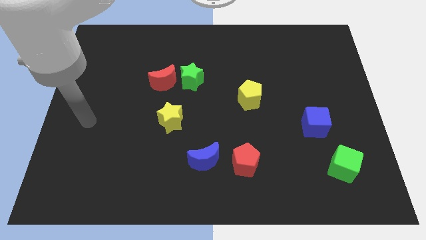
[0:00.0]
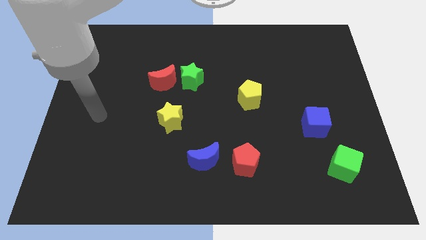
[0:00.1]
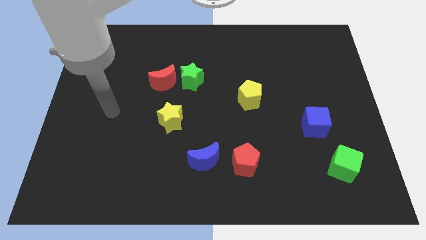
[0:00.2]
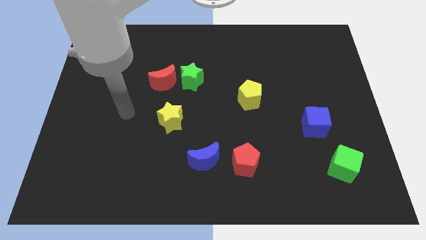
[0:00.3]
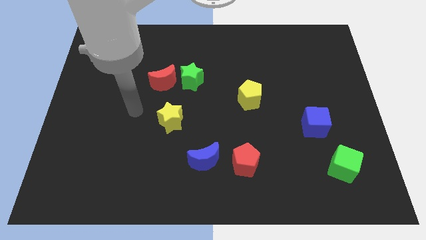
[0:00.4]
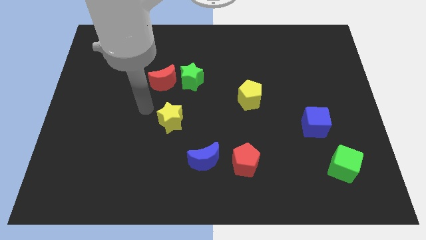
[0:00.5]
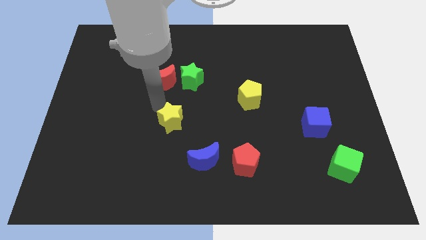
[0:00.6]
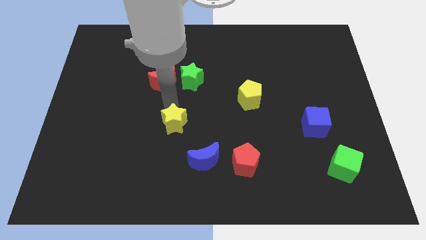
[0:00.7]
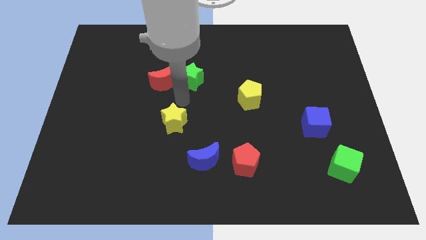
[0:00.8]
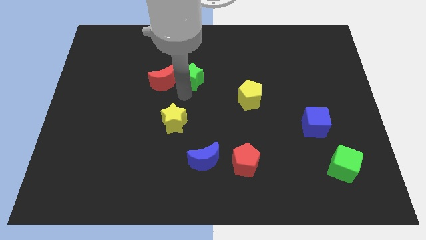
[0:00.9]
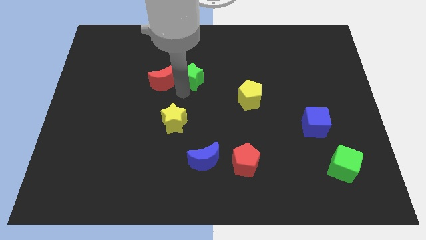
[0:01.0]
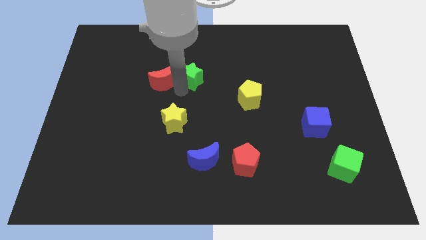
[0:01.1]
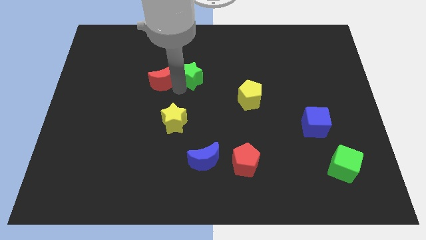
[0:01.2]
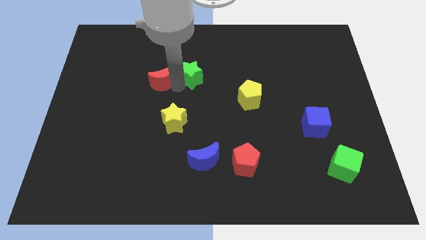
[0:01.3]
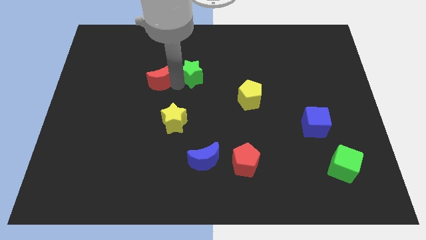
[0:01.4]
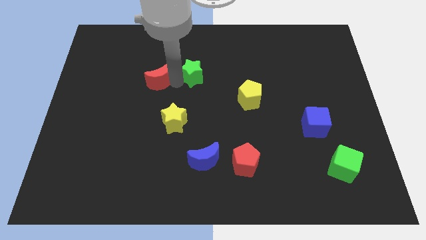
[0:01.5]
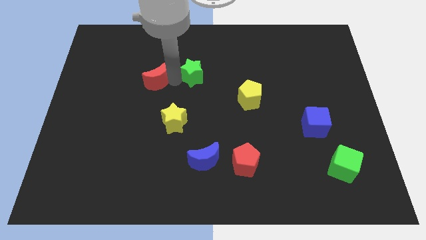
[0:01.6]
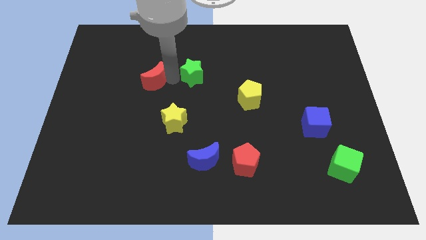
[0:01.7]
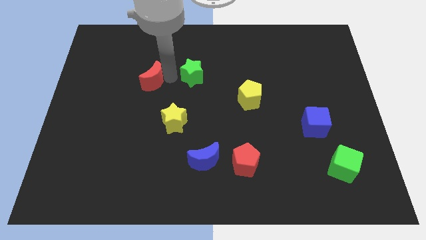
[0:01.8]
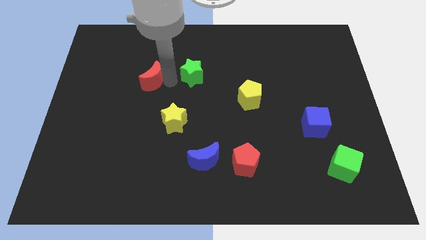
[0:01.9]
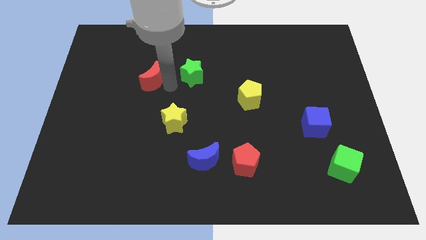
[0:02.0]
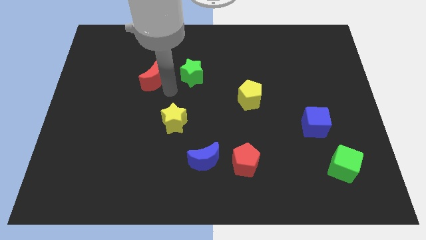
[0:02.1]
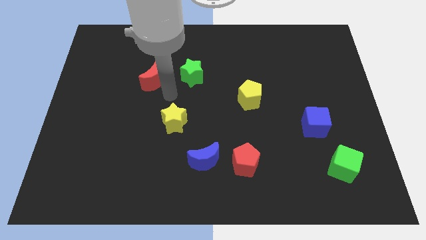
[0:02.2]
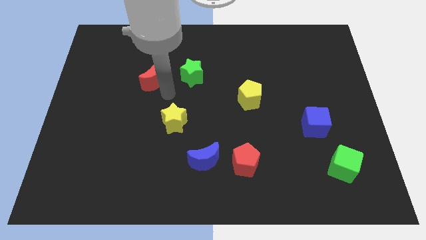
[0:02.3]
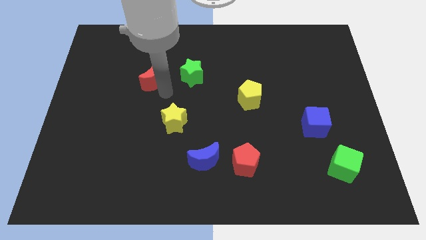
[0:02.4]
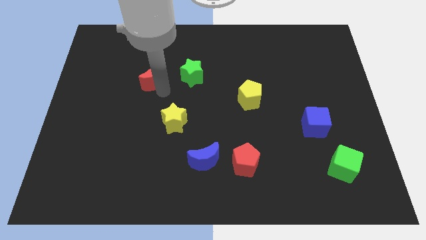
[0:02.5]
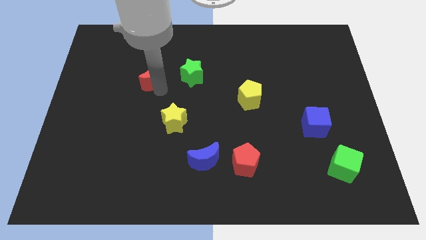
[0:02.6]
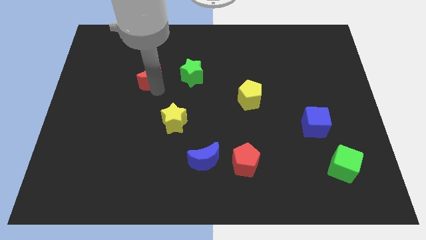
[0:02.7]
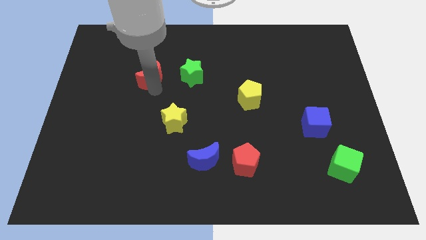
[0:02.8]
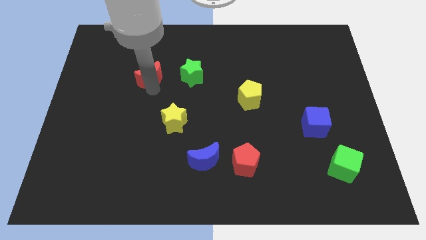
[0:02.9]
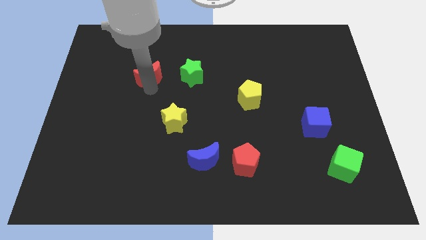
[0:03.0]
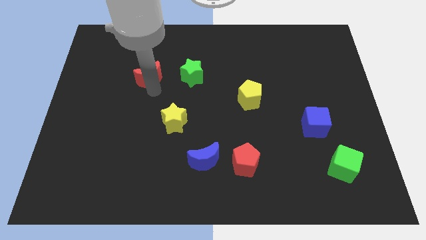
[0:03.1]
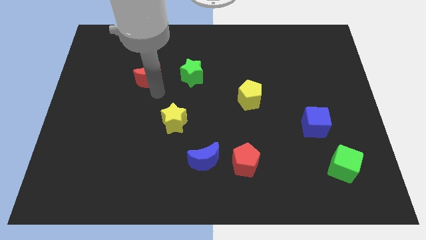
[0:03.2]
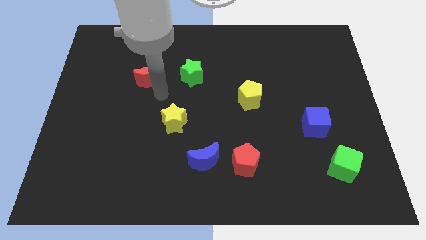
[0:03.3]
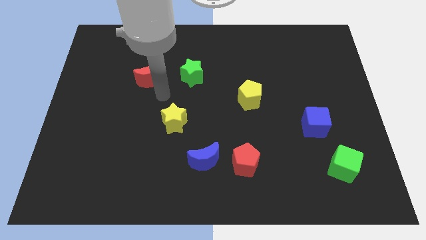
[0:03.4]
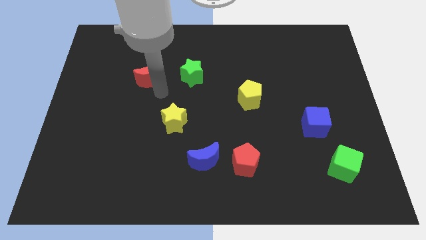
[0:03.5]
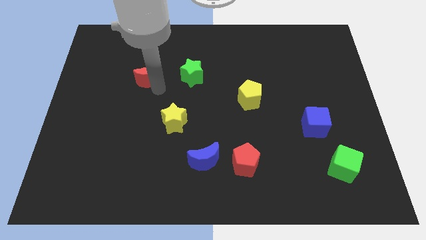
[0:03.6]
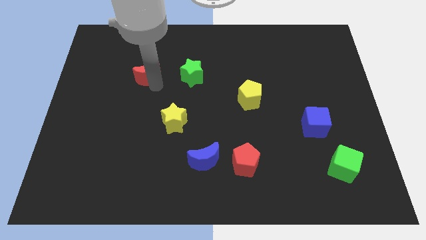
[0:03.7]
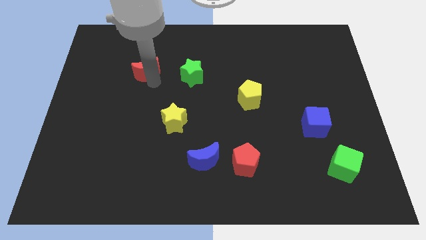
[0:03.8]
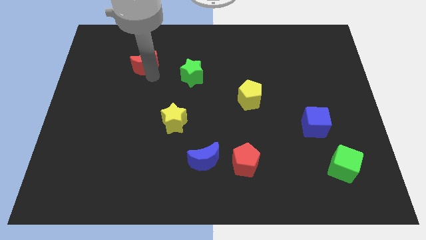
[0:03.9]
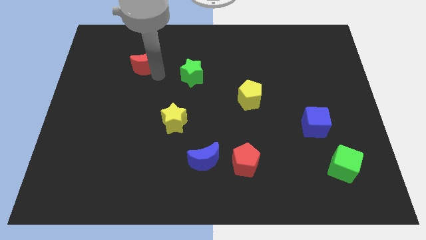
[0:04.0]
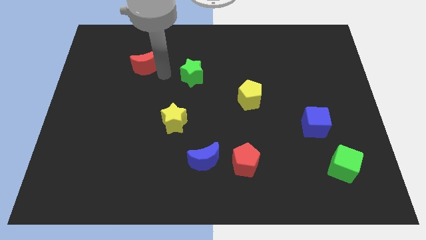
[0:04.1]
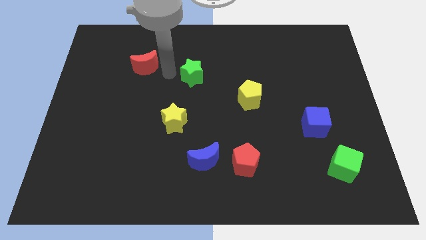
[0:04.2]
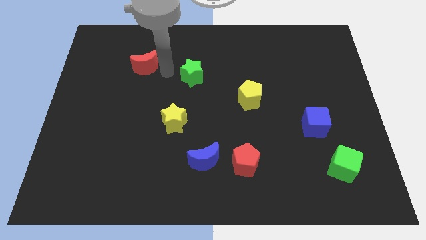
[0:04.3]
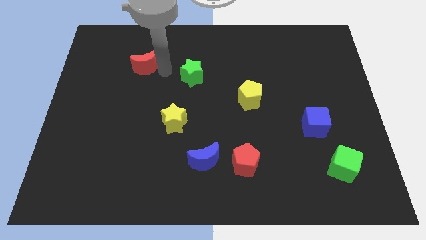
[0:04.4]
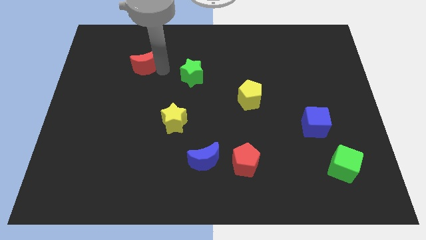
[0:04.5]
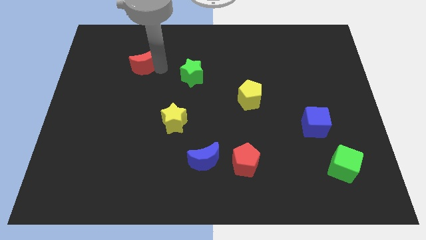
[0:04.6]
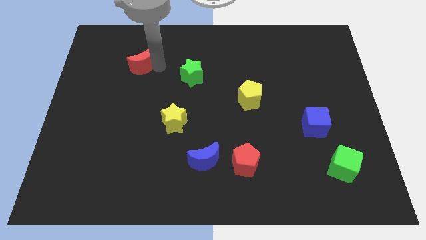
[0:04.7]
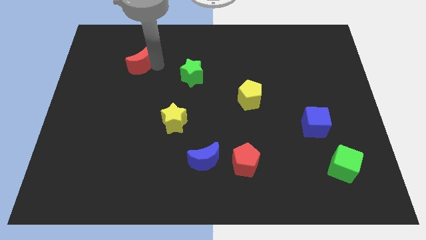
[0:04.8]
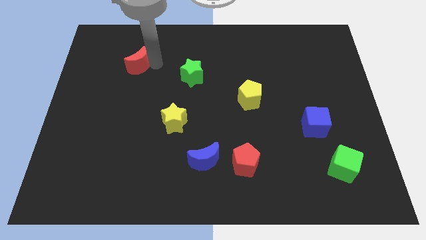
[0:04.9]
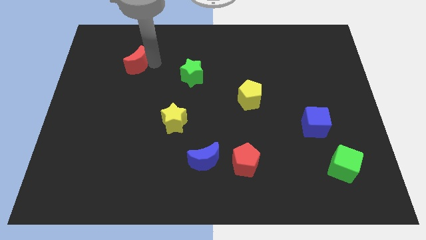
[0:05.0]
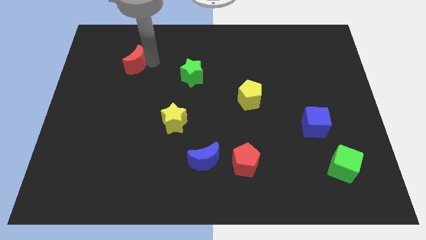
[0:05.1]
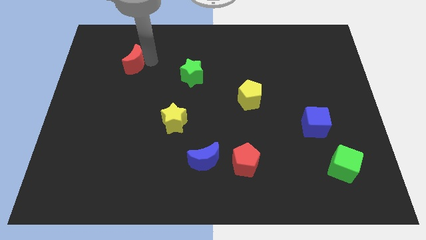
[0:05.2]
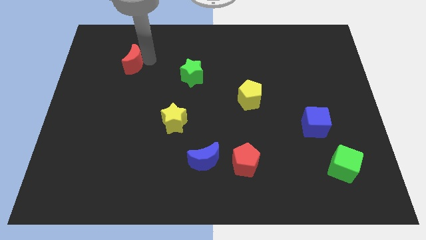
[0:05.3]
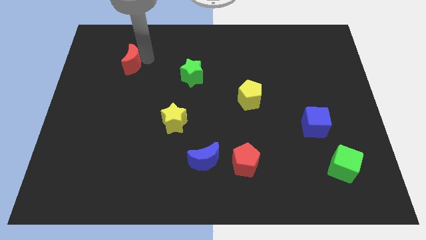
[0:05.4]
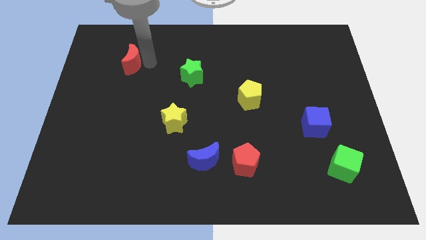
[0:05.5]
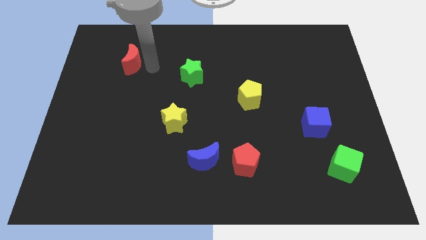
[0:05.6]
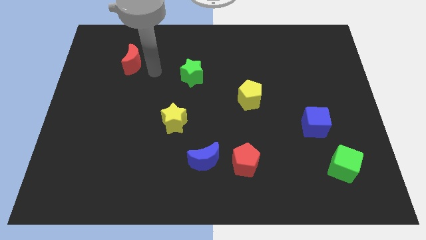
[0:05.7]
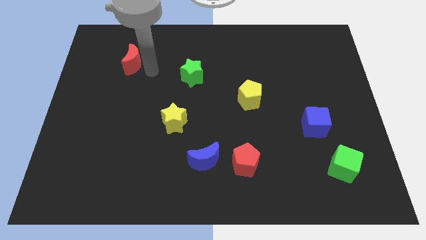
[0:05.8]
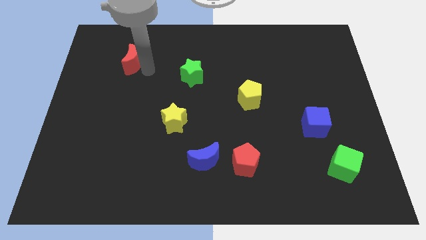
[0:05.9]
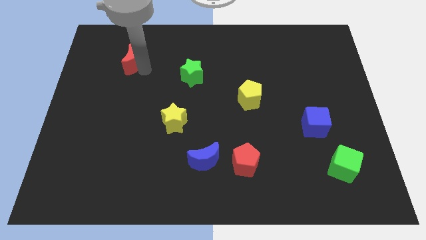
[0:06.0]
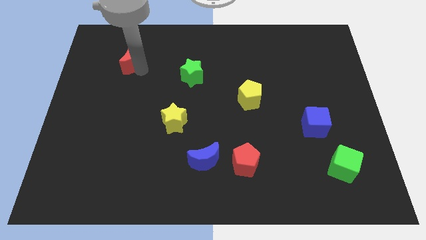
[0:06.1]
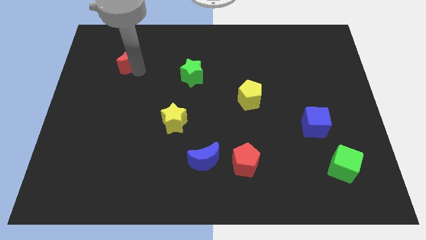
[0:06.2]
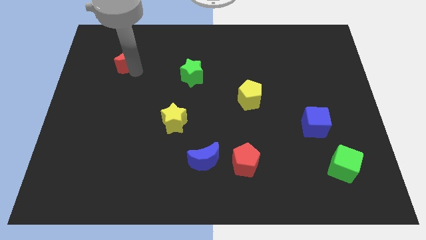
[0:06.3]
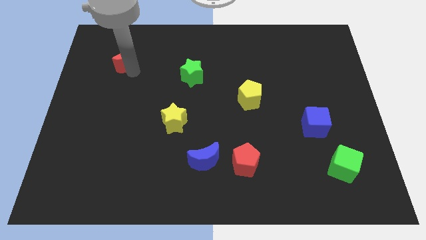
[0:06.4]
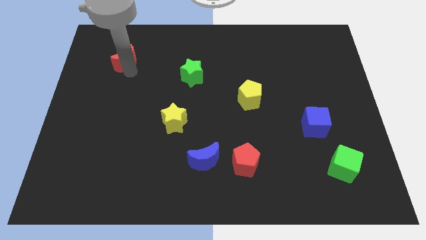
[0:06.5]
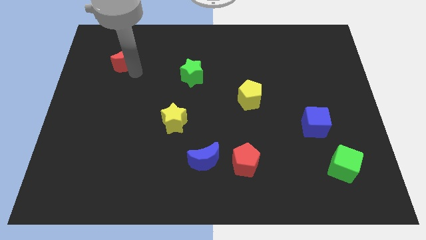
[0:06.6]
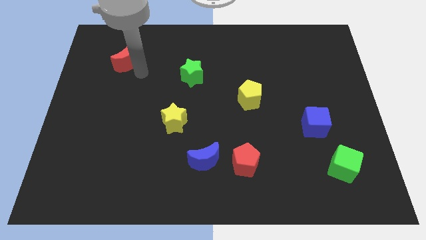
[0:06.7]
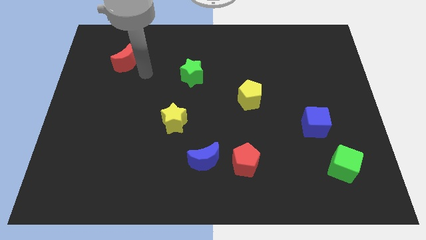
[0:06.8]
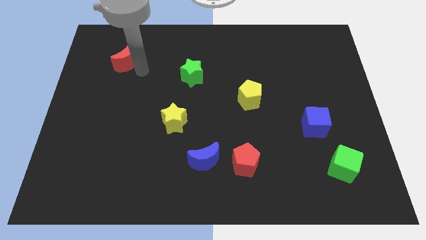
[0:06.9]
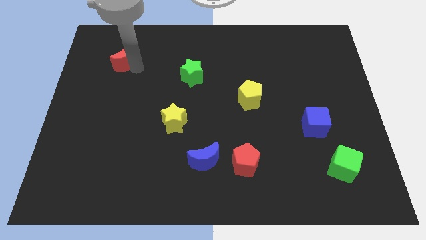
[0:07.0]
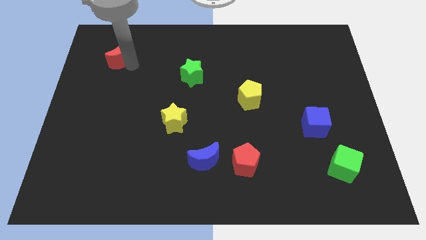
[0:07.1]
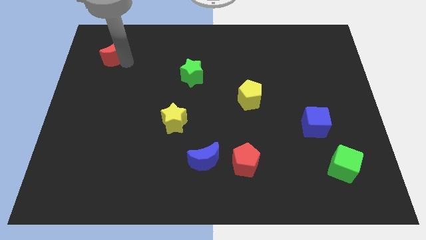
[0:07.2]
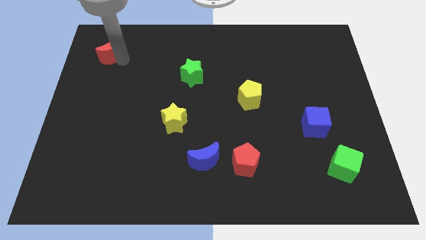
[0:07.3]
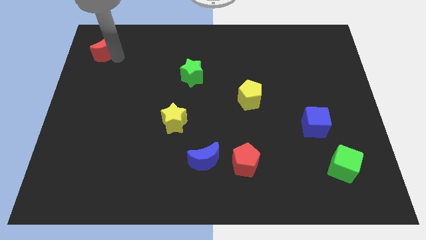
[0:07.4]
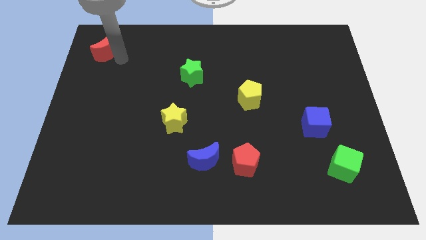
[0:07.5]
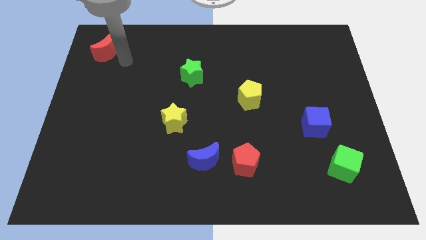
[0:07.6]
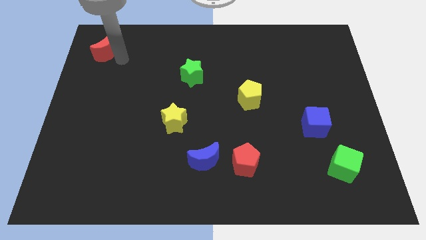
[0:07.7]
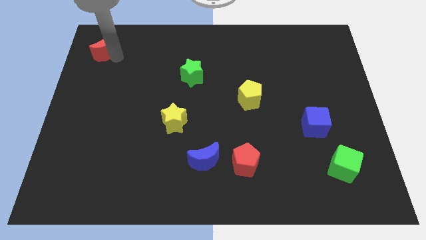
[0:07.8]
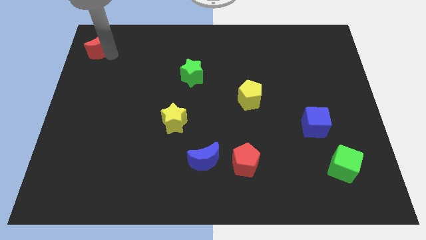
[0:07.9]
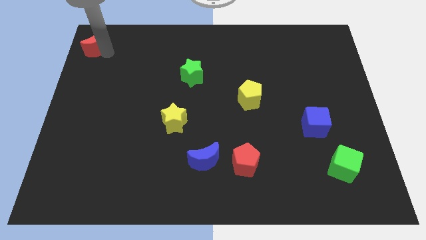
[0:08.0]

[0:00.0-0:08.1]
put the red moon to the top left corner
